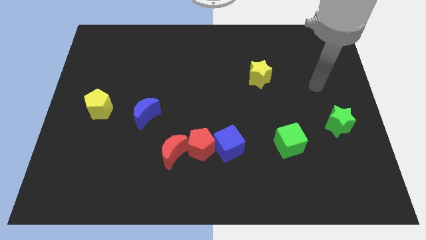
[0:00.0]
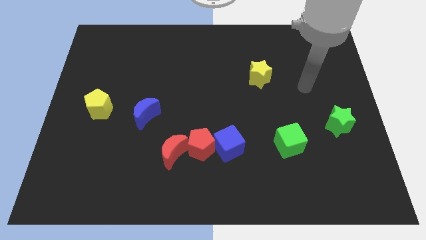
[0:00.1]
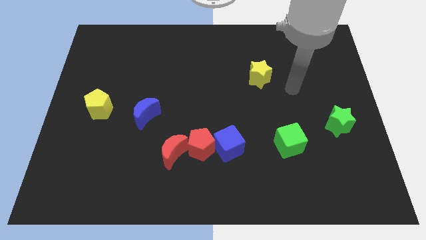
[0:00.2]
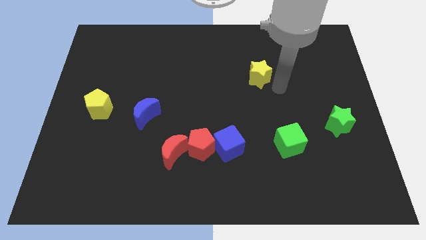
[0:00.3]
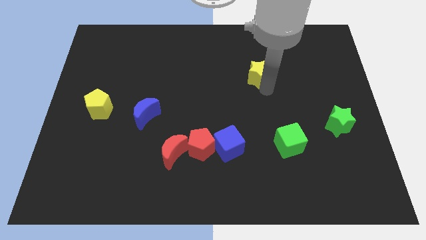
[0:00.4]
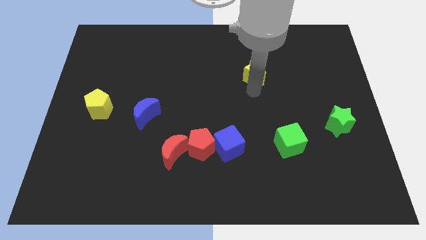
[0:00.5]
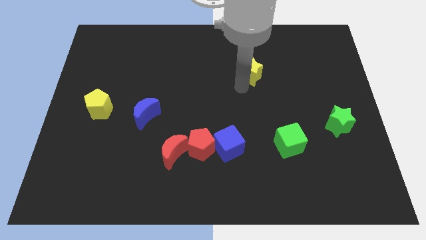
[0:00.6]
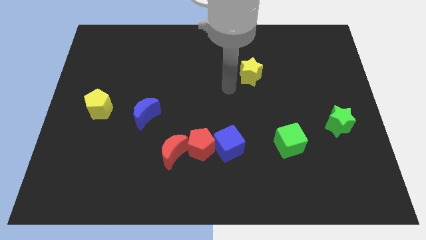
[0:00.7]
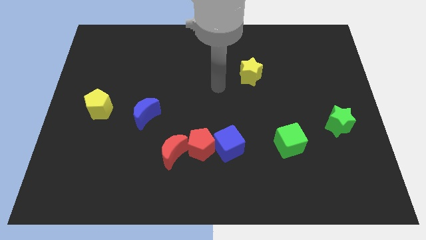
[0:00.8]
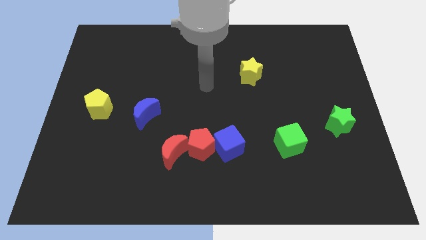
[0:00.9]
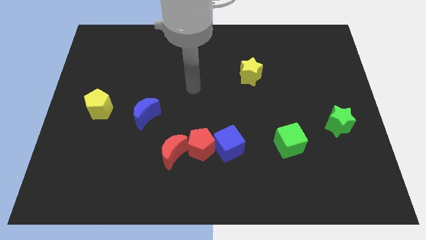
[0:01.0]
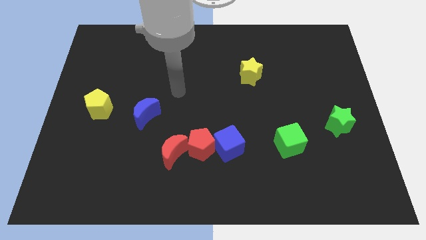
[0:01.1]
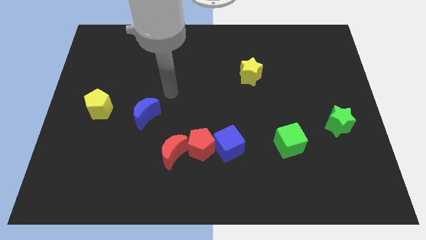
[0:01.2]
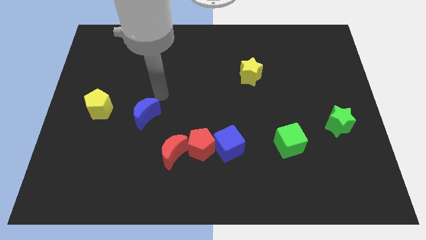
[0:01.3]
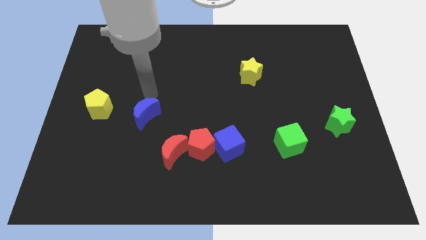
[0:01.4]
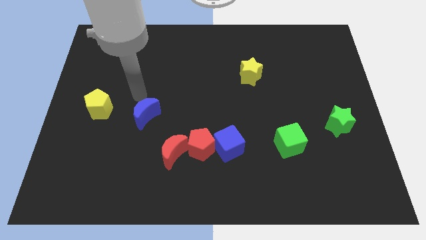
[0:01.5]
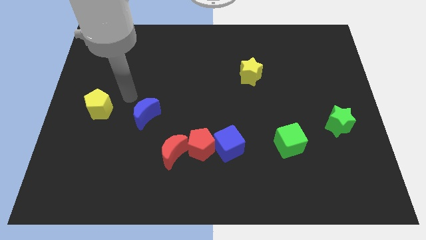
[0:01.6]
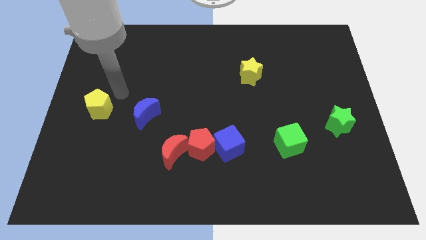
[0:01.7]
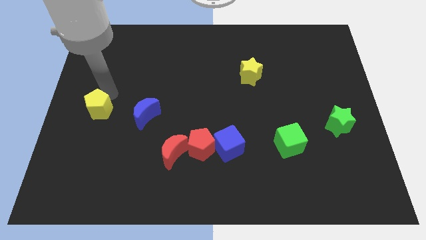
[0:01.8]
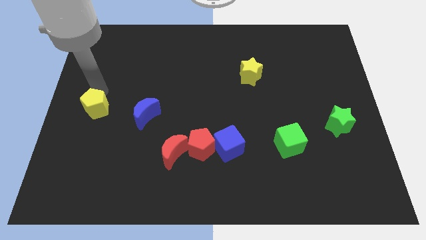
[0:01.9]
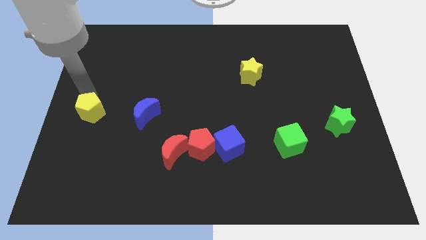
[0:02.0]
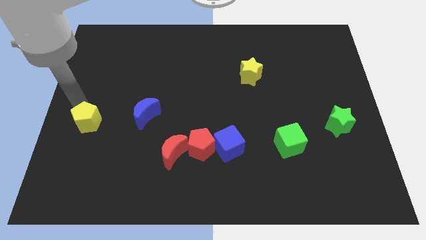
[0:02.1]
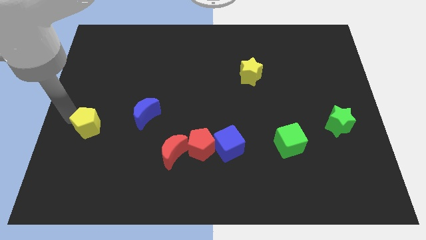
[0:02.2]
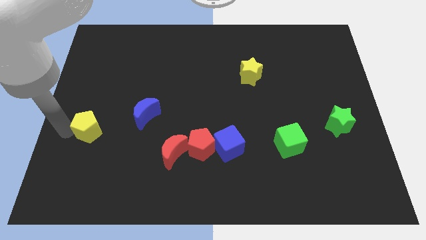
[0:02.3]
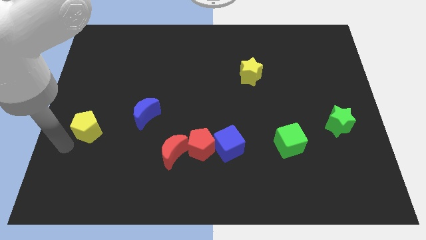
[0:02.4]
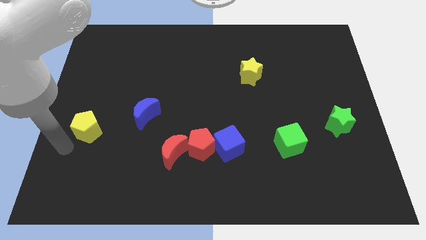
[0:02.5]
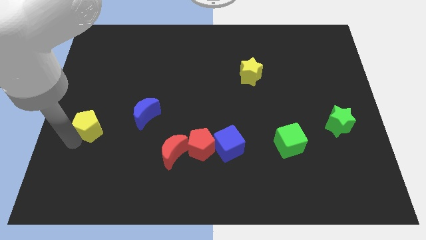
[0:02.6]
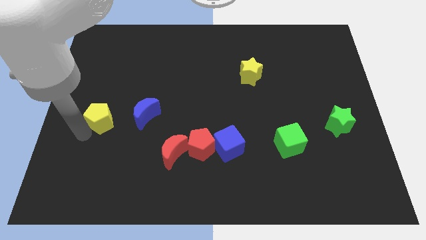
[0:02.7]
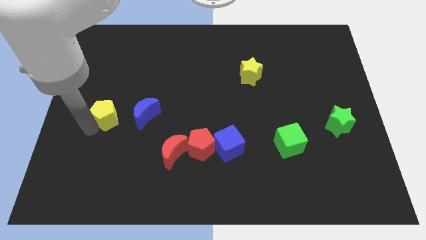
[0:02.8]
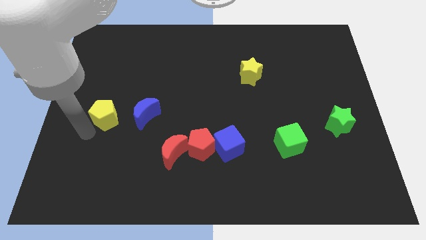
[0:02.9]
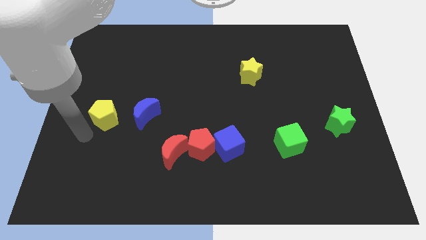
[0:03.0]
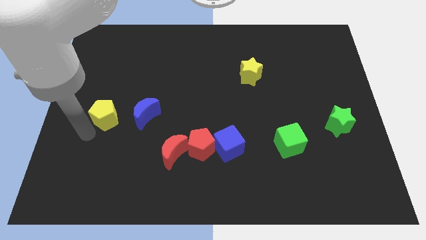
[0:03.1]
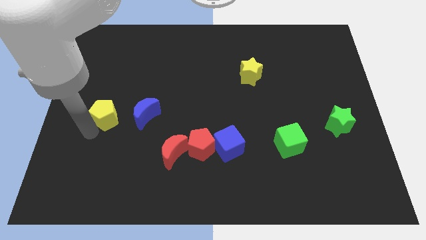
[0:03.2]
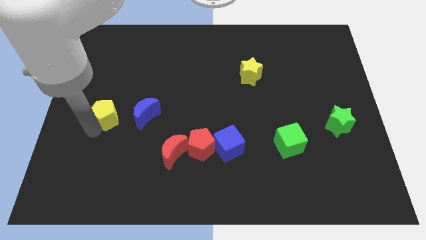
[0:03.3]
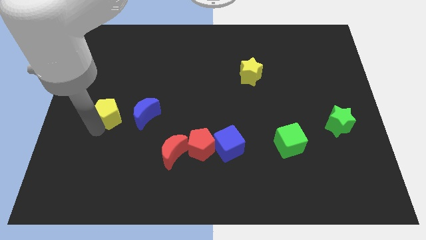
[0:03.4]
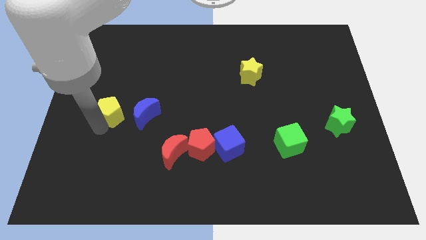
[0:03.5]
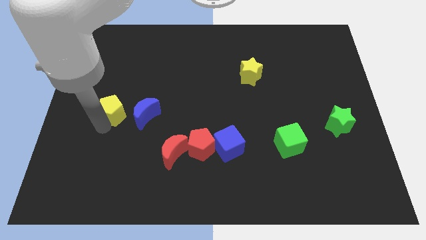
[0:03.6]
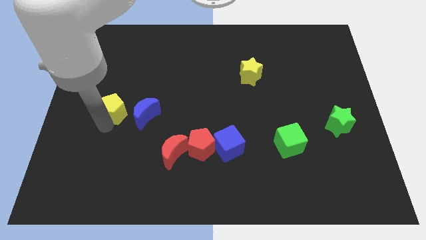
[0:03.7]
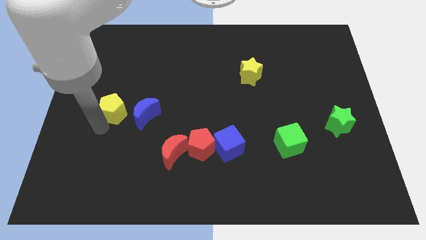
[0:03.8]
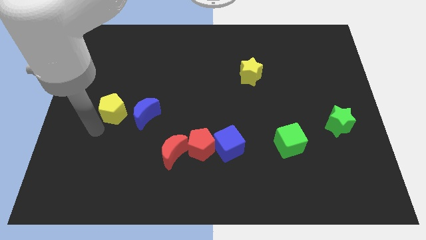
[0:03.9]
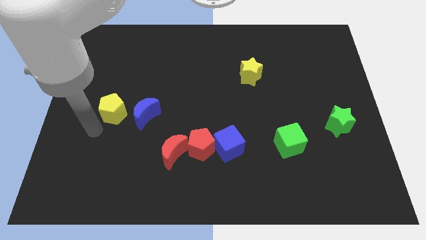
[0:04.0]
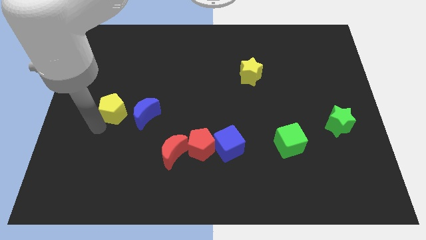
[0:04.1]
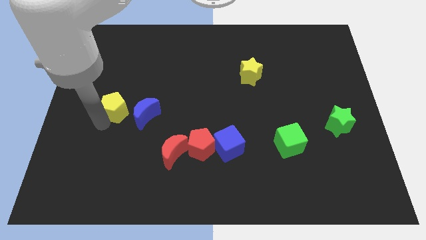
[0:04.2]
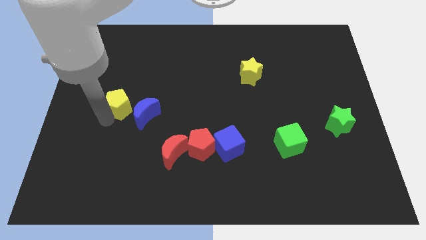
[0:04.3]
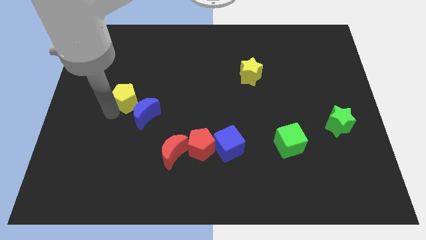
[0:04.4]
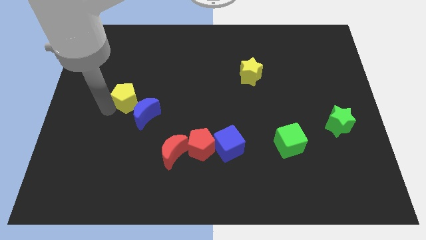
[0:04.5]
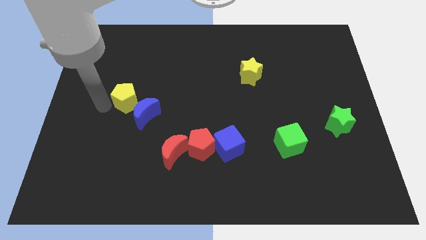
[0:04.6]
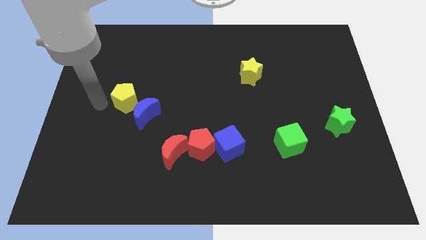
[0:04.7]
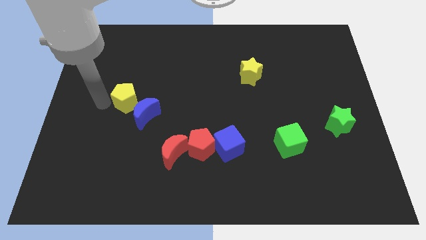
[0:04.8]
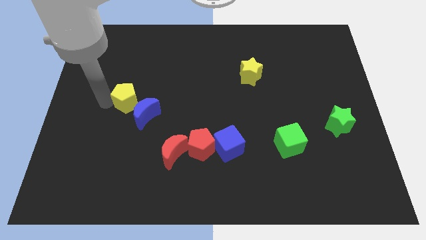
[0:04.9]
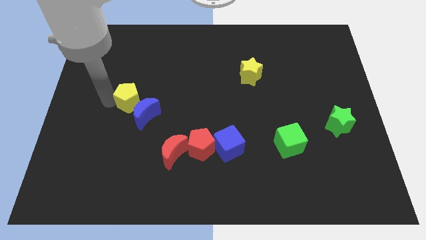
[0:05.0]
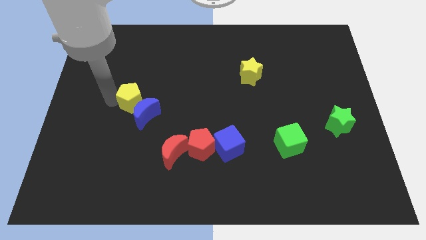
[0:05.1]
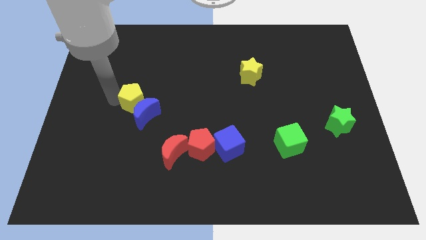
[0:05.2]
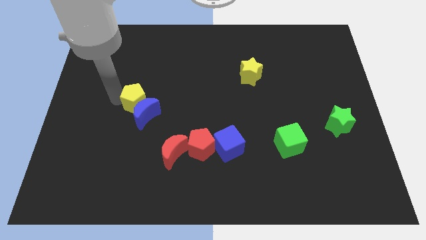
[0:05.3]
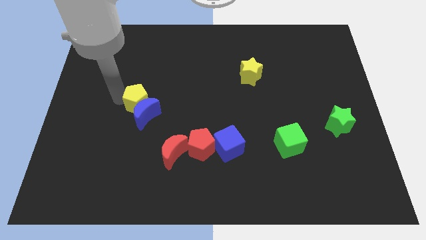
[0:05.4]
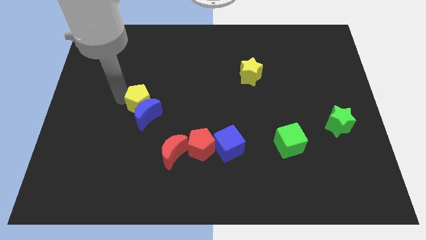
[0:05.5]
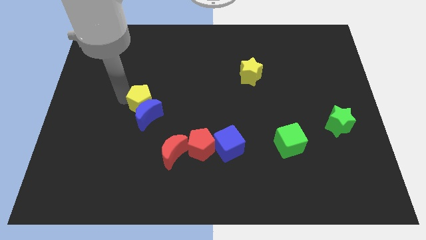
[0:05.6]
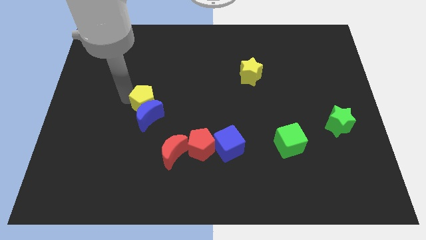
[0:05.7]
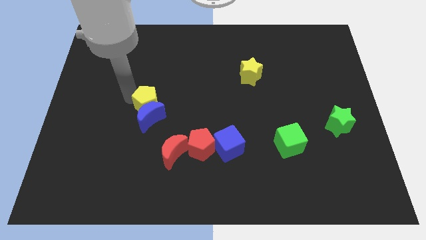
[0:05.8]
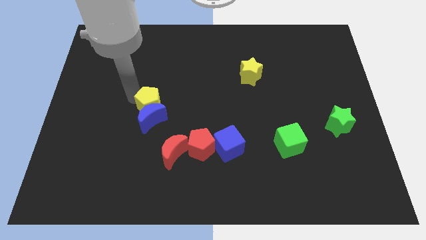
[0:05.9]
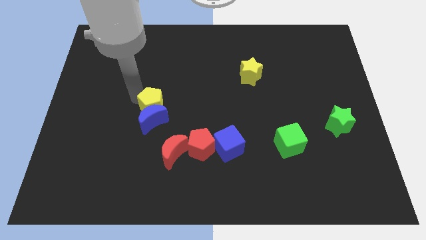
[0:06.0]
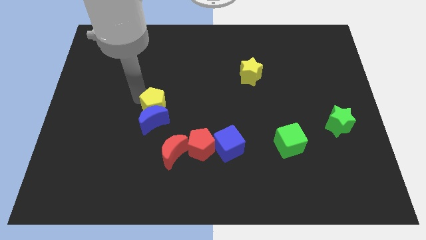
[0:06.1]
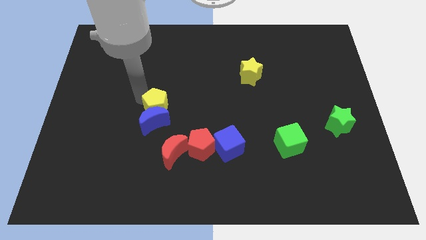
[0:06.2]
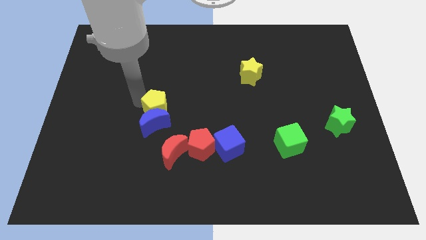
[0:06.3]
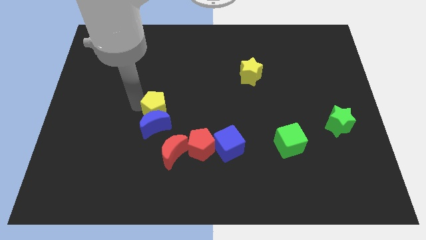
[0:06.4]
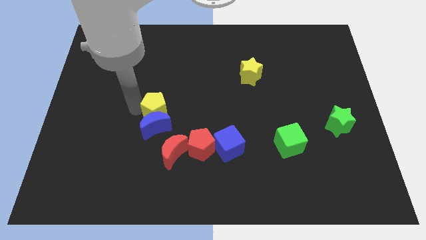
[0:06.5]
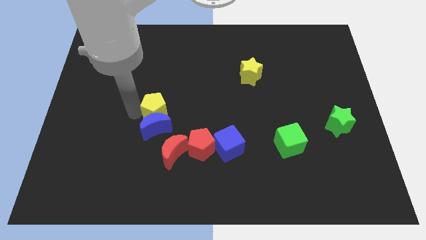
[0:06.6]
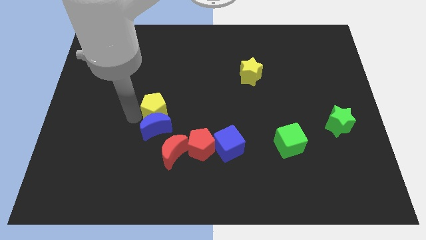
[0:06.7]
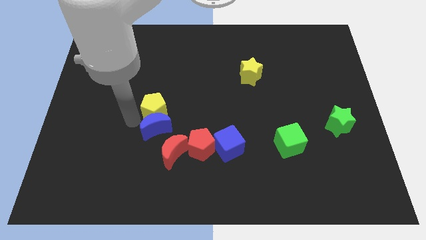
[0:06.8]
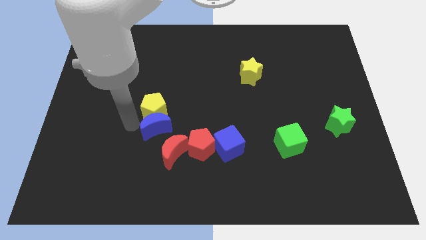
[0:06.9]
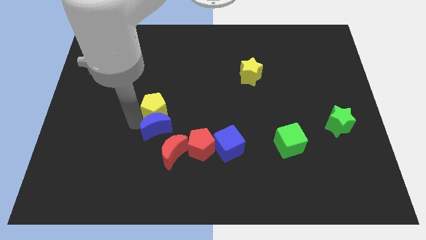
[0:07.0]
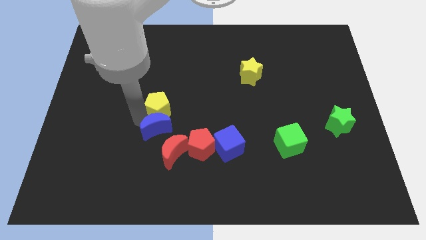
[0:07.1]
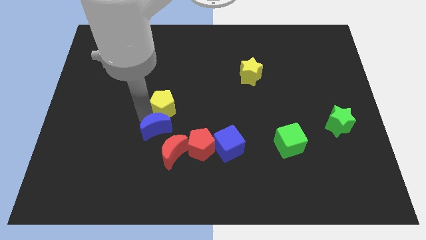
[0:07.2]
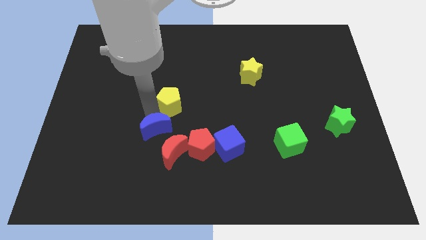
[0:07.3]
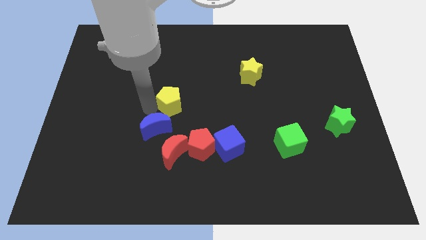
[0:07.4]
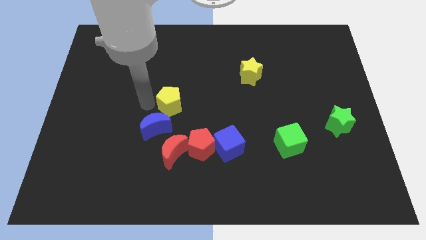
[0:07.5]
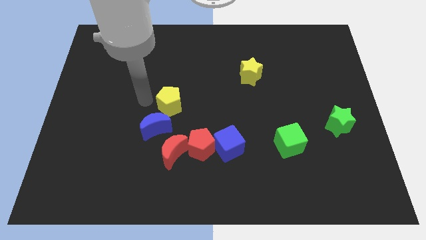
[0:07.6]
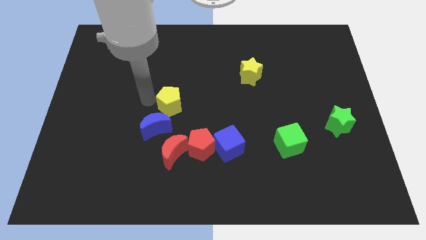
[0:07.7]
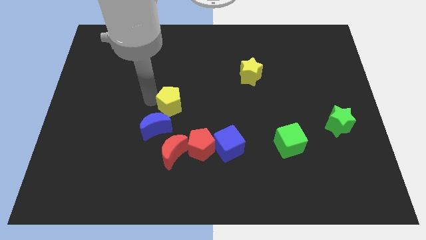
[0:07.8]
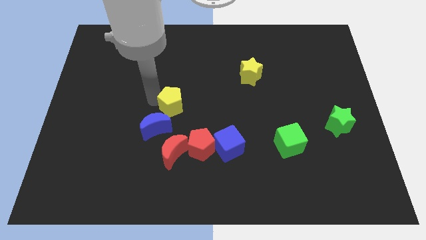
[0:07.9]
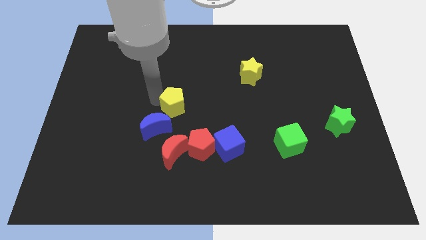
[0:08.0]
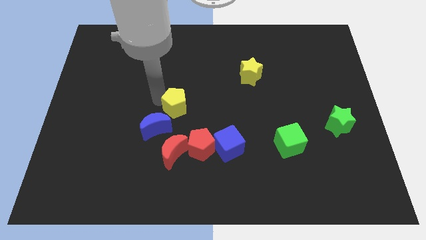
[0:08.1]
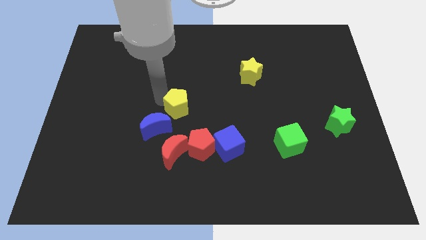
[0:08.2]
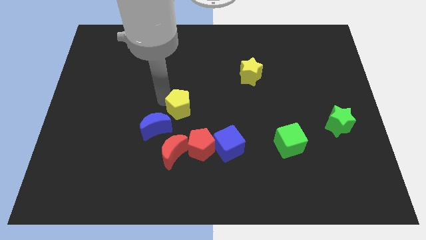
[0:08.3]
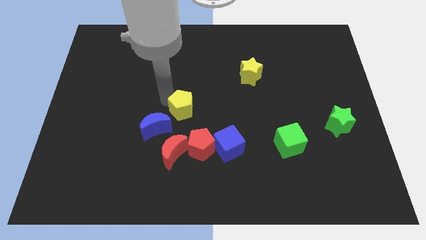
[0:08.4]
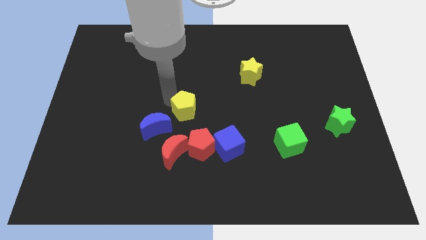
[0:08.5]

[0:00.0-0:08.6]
move the yellow pentagon to the right
